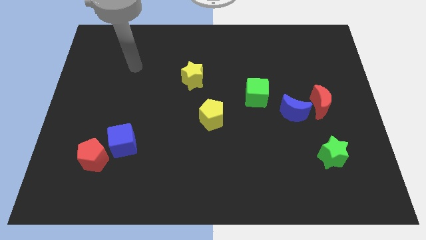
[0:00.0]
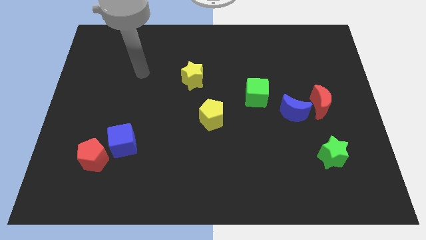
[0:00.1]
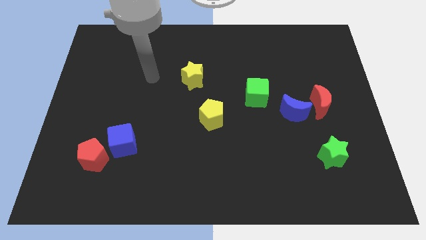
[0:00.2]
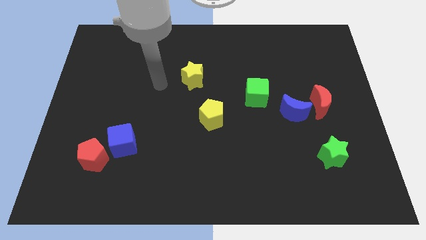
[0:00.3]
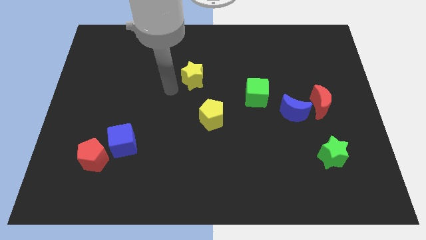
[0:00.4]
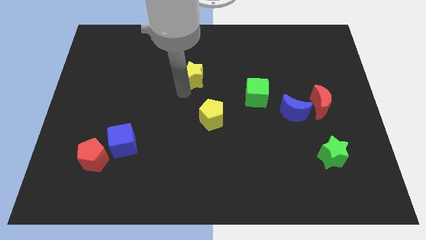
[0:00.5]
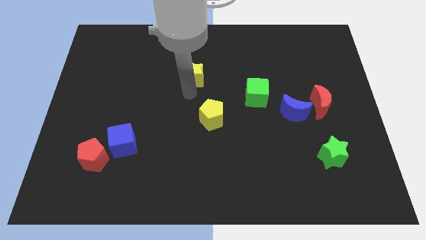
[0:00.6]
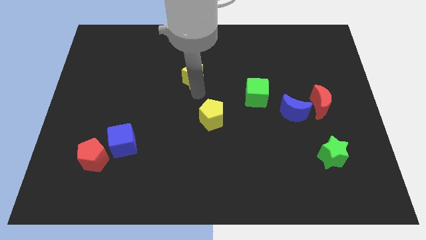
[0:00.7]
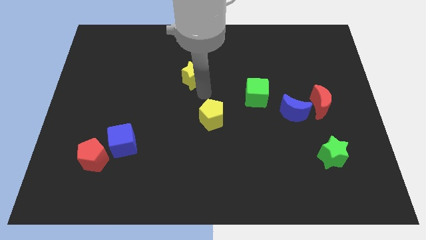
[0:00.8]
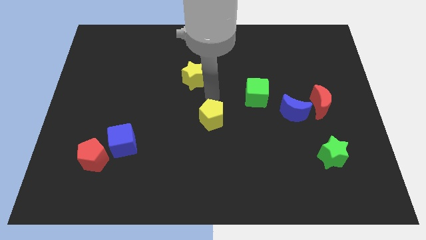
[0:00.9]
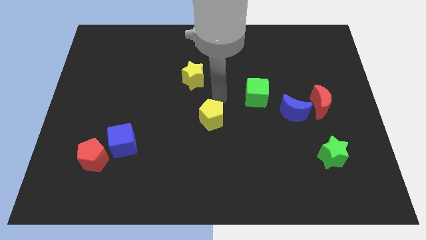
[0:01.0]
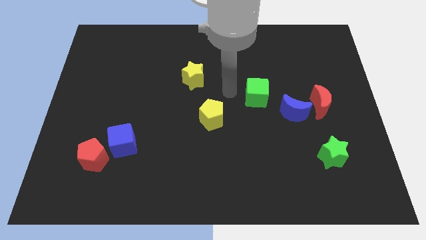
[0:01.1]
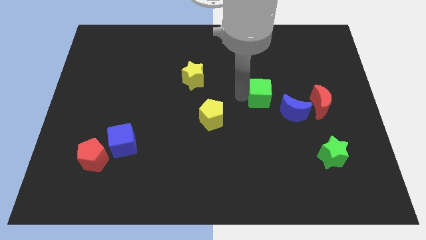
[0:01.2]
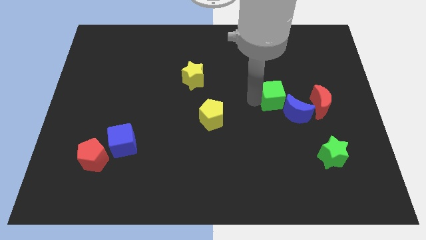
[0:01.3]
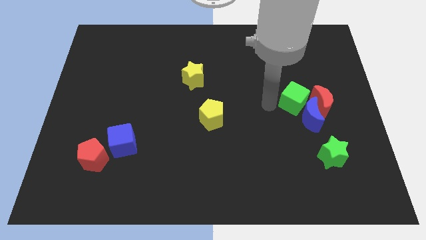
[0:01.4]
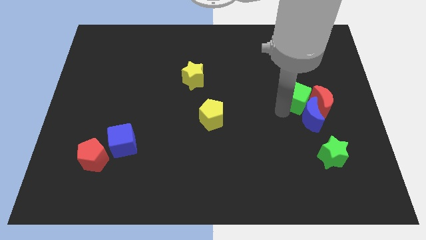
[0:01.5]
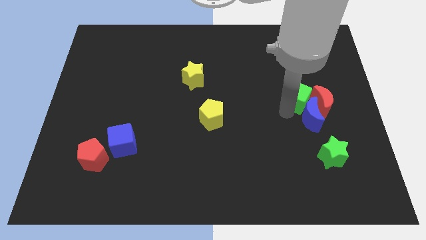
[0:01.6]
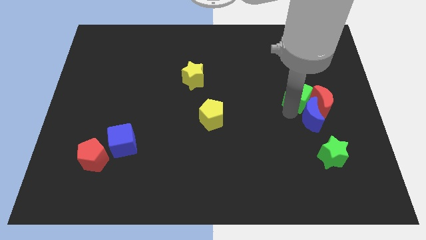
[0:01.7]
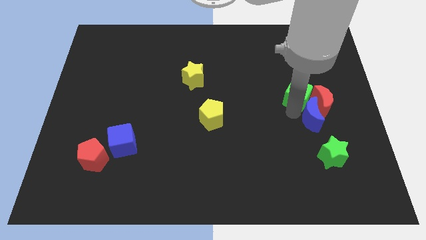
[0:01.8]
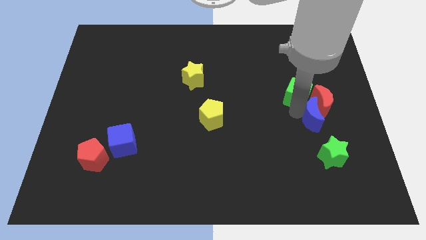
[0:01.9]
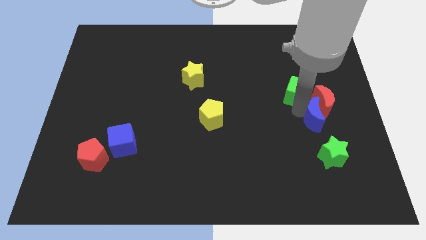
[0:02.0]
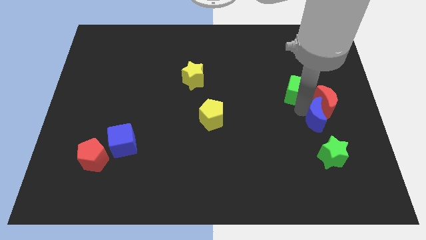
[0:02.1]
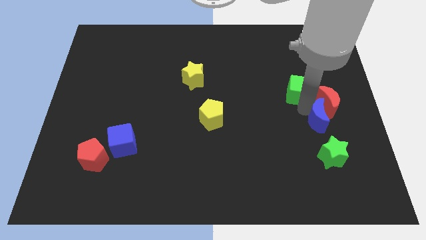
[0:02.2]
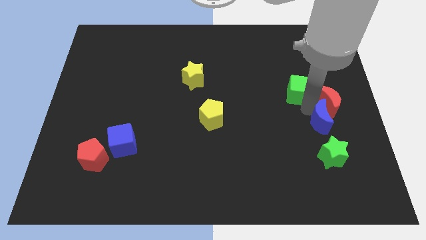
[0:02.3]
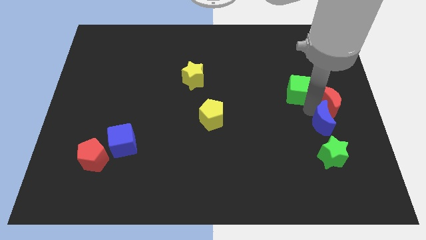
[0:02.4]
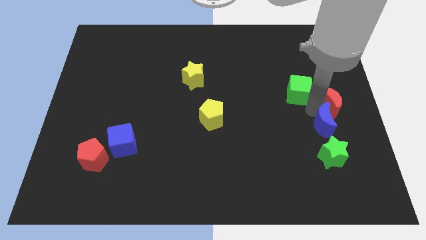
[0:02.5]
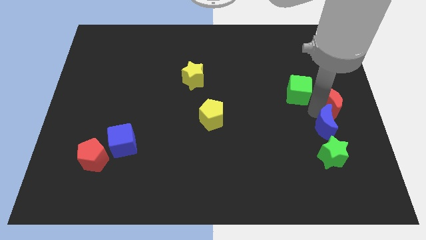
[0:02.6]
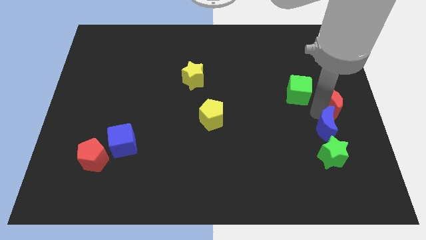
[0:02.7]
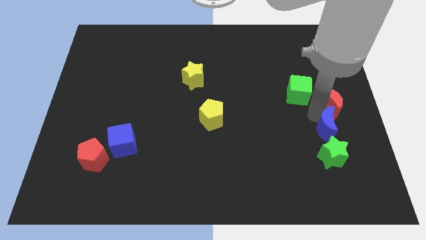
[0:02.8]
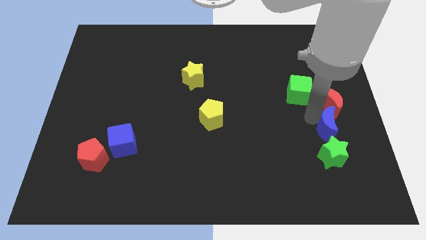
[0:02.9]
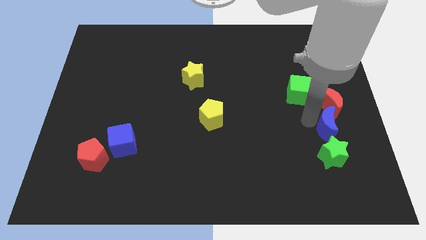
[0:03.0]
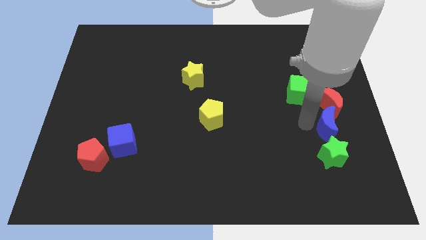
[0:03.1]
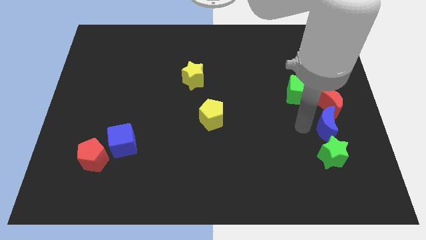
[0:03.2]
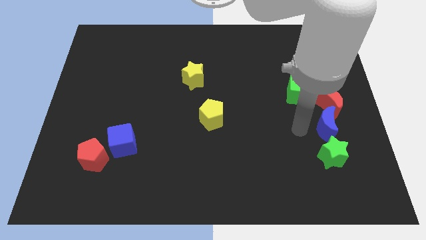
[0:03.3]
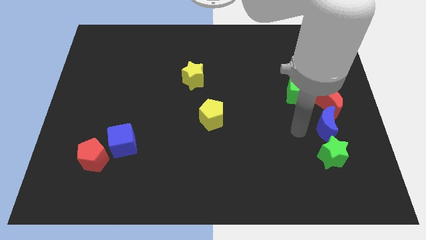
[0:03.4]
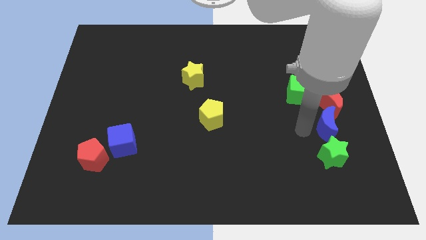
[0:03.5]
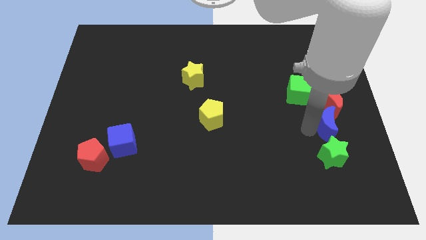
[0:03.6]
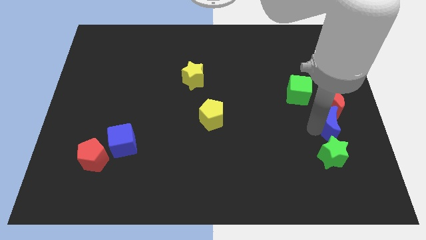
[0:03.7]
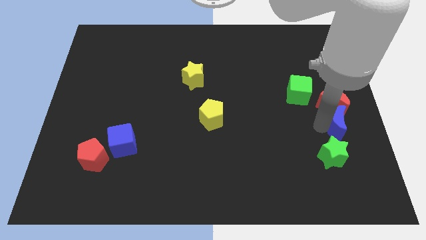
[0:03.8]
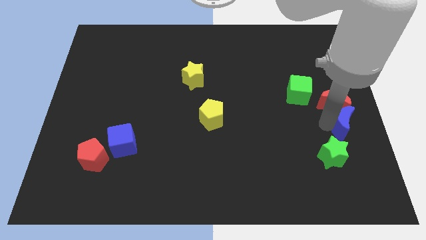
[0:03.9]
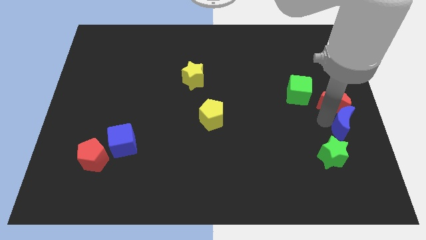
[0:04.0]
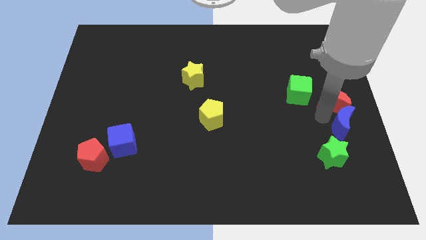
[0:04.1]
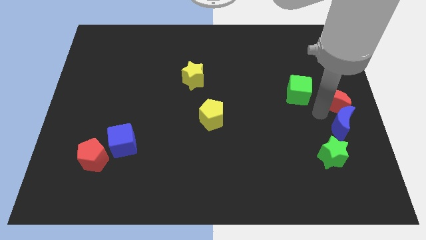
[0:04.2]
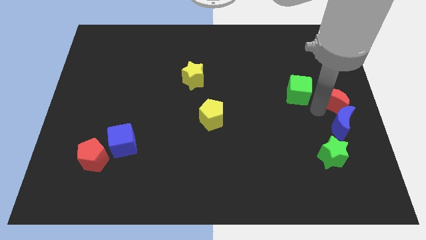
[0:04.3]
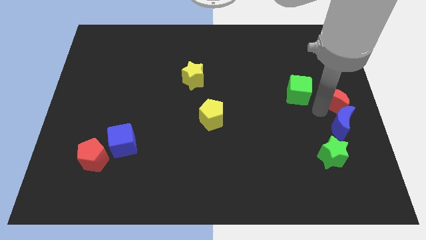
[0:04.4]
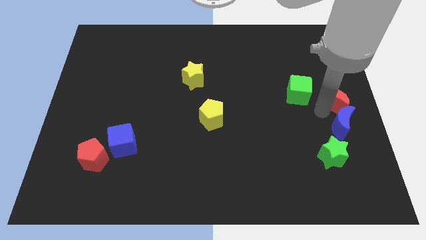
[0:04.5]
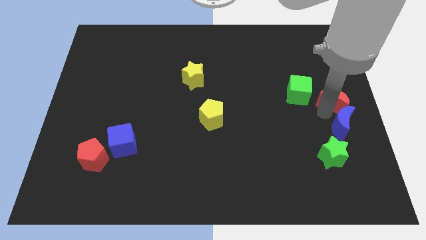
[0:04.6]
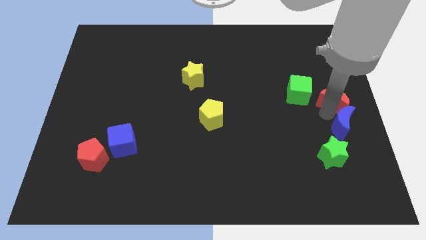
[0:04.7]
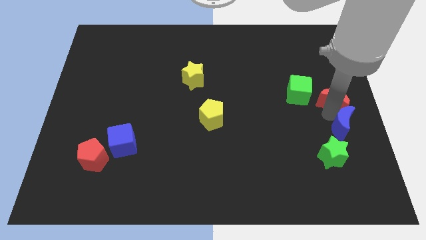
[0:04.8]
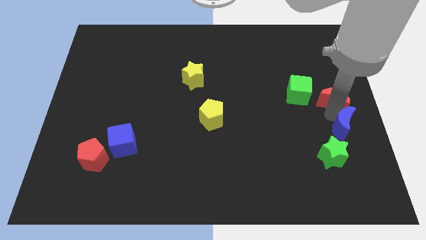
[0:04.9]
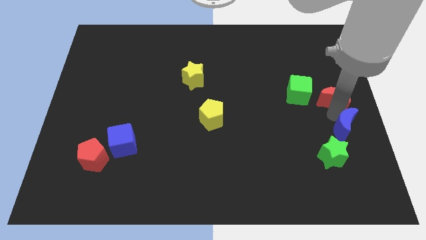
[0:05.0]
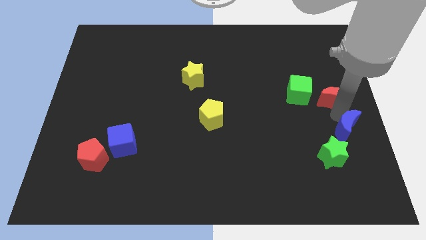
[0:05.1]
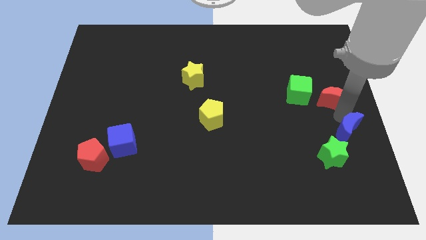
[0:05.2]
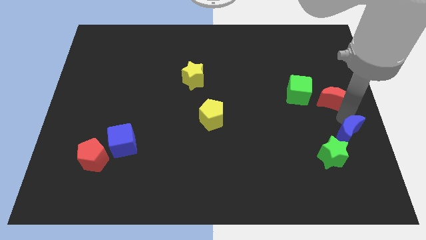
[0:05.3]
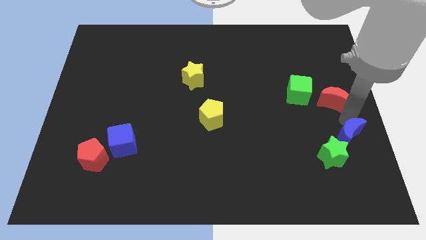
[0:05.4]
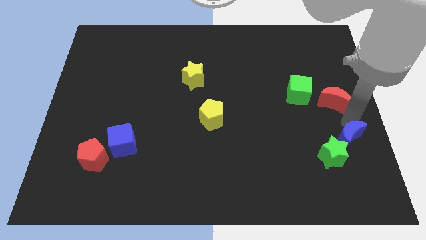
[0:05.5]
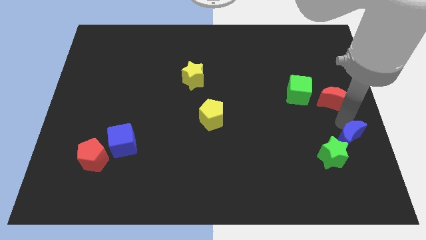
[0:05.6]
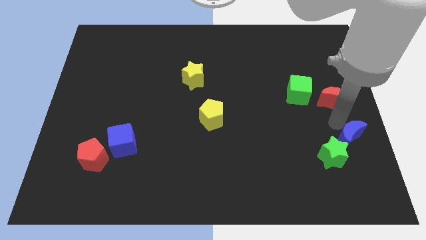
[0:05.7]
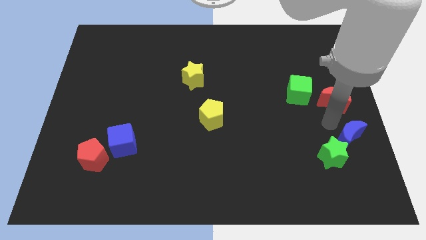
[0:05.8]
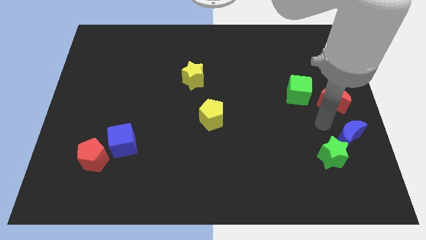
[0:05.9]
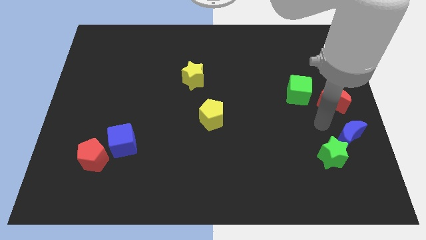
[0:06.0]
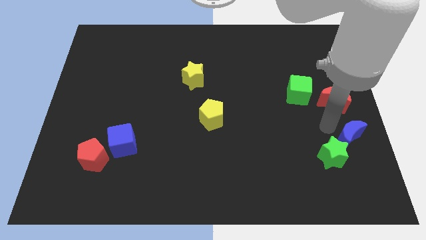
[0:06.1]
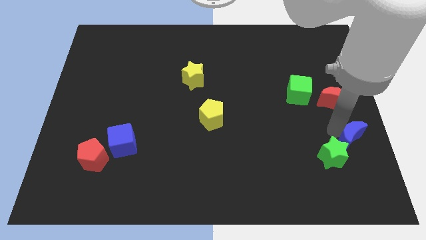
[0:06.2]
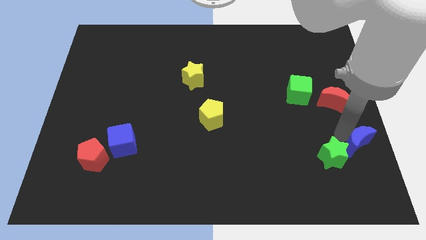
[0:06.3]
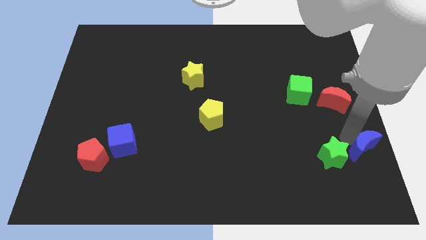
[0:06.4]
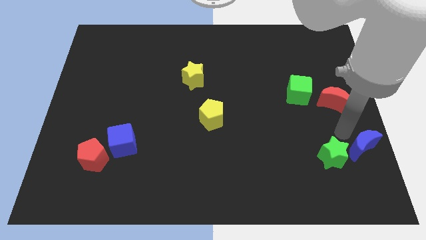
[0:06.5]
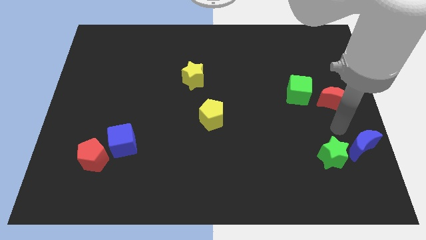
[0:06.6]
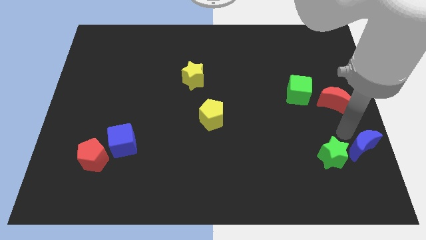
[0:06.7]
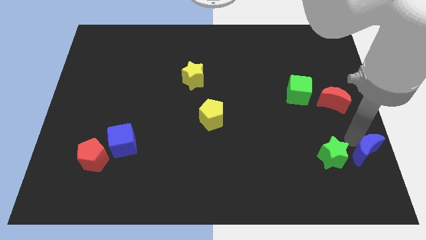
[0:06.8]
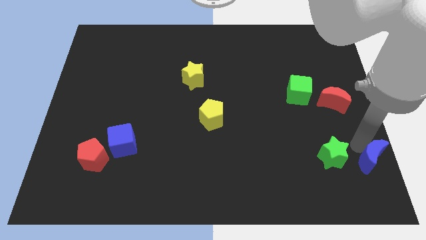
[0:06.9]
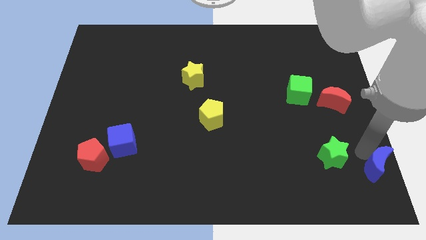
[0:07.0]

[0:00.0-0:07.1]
move the blue moon to the bottom right corner
